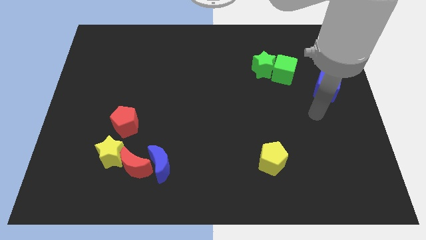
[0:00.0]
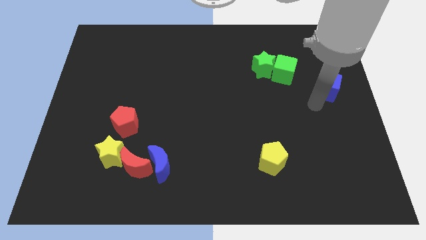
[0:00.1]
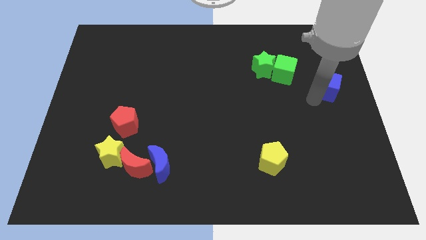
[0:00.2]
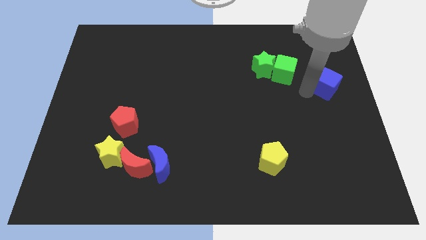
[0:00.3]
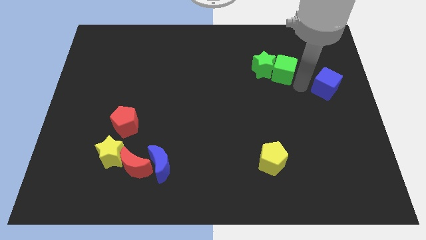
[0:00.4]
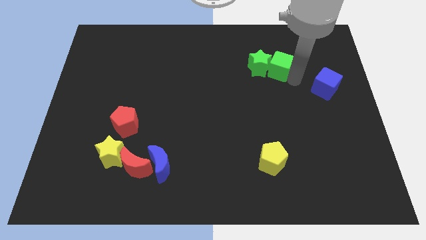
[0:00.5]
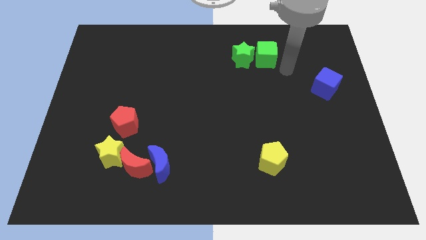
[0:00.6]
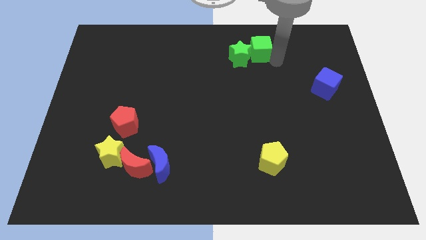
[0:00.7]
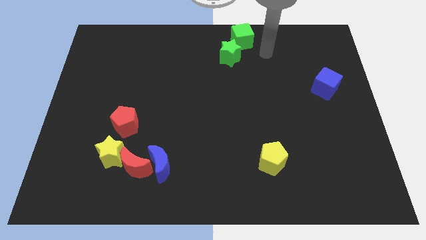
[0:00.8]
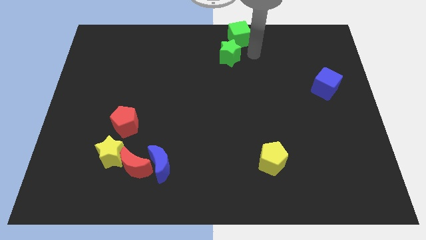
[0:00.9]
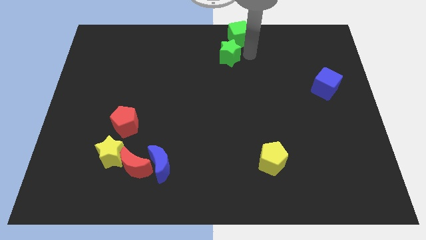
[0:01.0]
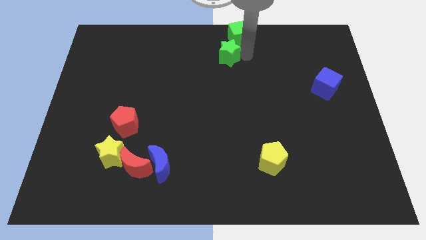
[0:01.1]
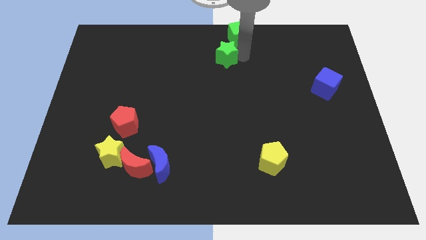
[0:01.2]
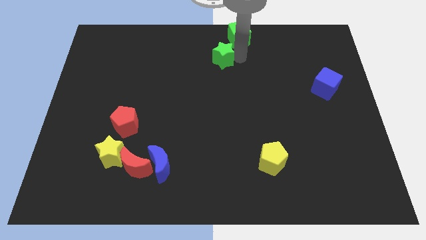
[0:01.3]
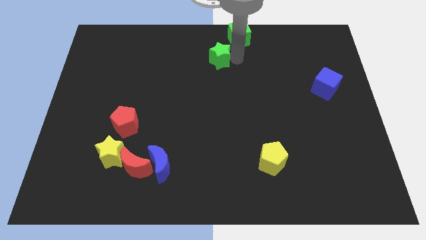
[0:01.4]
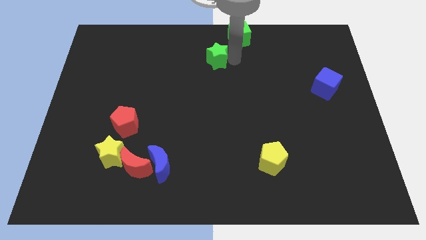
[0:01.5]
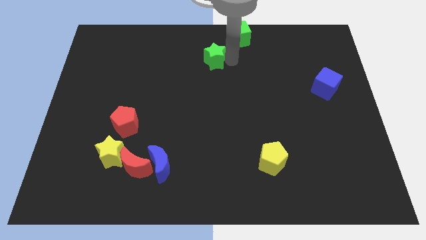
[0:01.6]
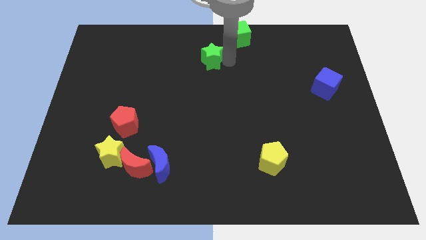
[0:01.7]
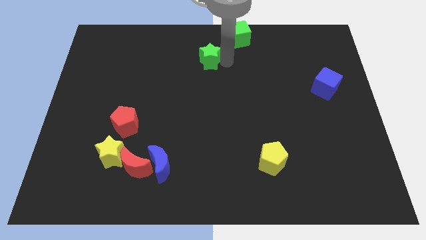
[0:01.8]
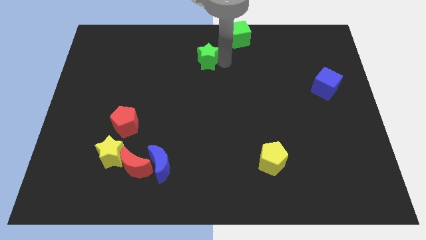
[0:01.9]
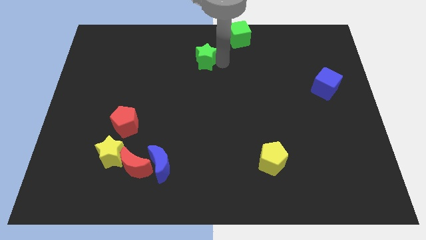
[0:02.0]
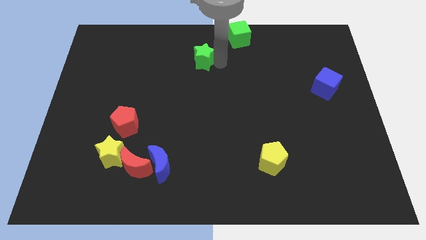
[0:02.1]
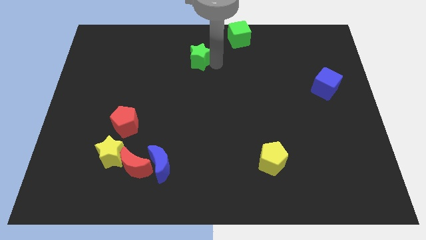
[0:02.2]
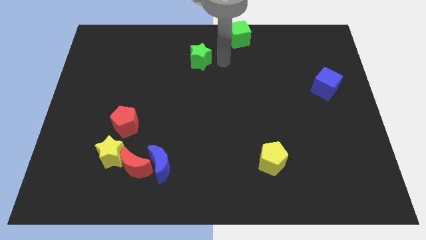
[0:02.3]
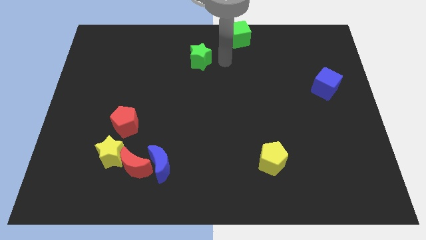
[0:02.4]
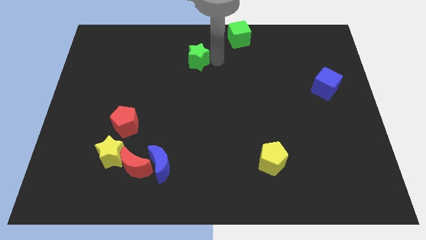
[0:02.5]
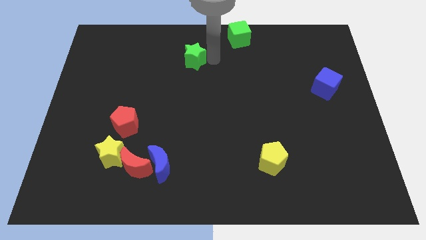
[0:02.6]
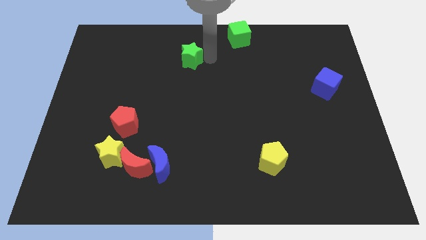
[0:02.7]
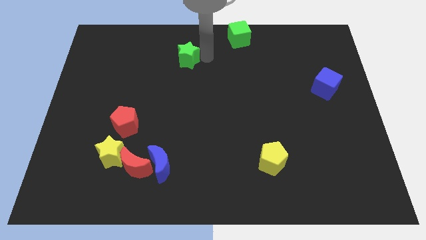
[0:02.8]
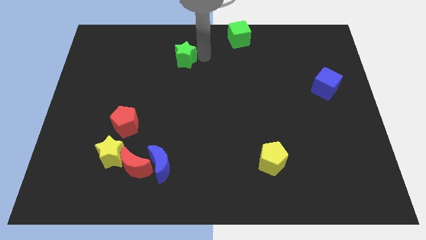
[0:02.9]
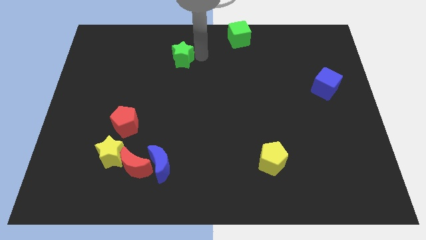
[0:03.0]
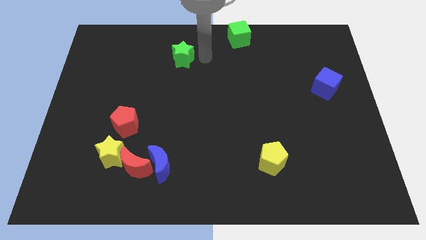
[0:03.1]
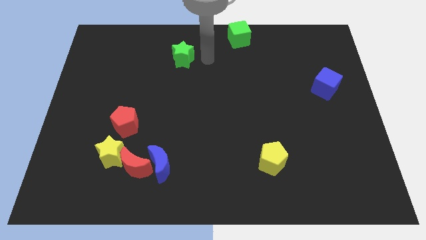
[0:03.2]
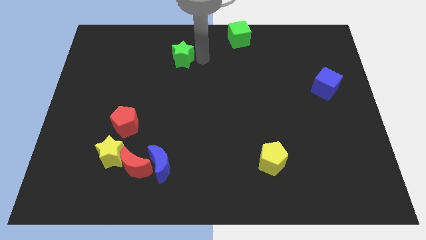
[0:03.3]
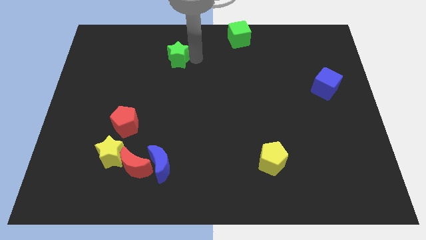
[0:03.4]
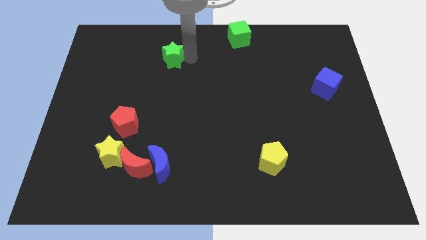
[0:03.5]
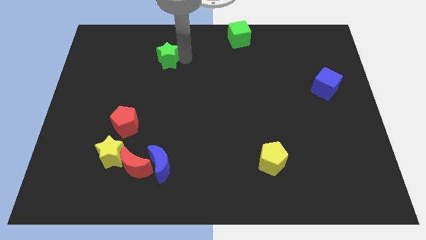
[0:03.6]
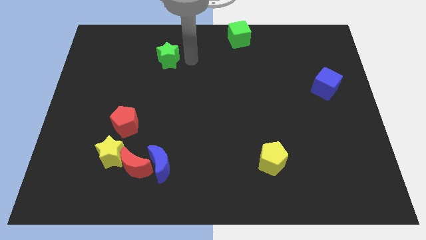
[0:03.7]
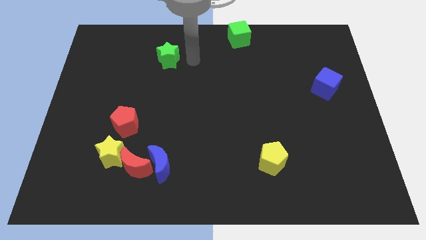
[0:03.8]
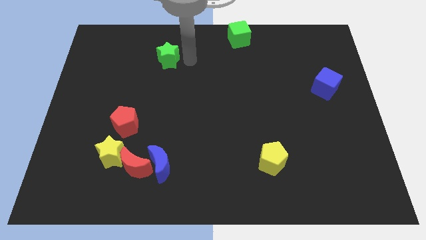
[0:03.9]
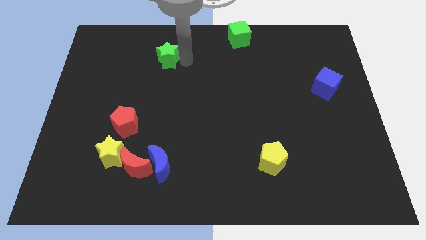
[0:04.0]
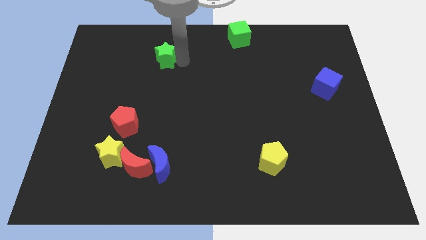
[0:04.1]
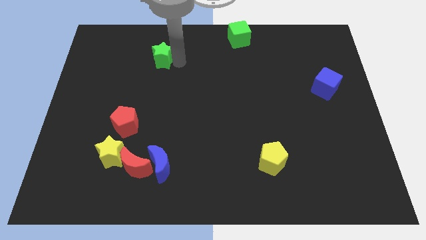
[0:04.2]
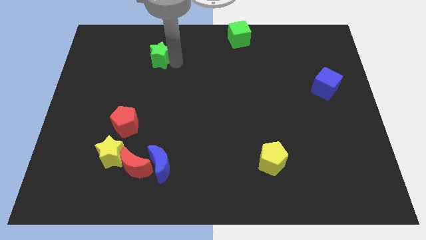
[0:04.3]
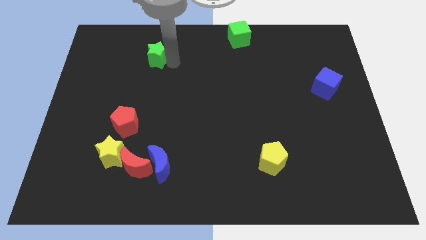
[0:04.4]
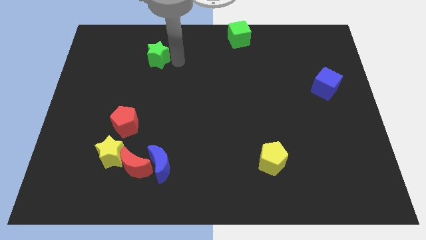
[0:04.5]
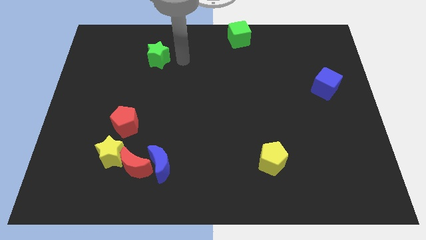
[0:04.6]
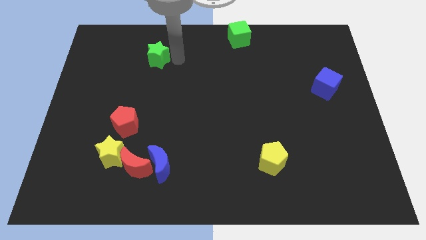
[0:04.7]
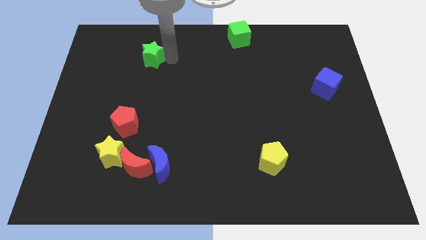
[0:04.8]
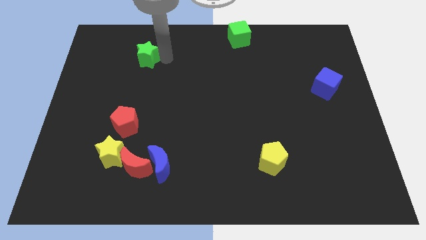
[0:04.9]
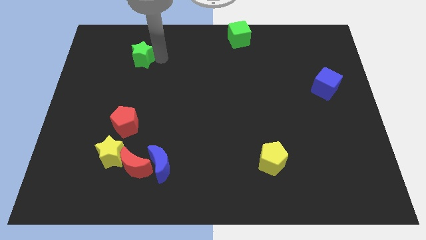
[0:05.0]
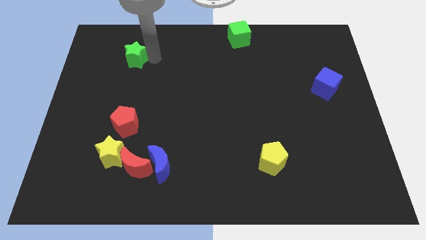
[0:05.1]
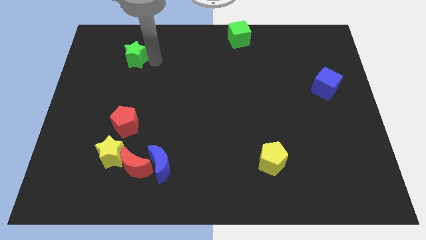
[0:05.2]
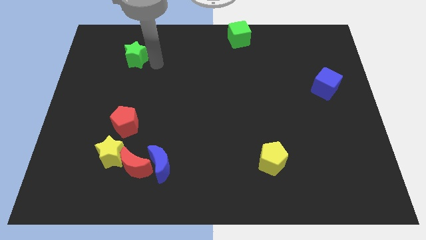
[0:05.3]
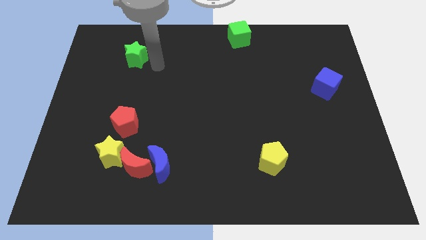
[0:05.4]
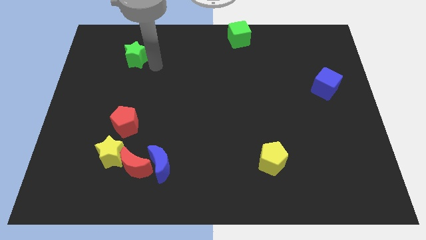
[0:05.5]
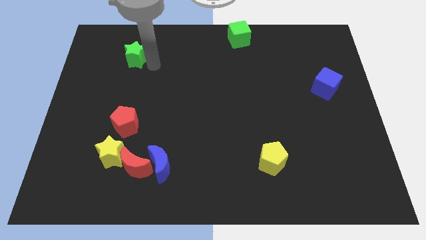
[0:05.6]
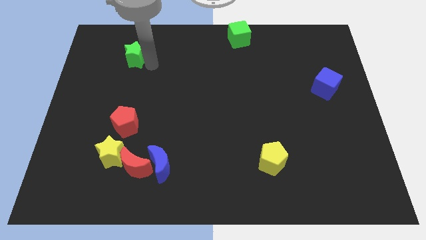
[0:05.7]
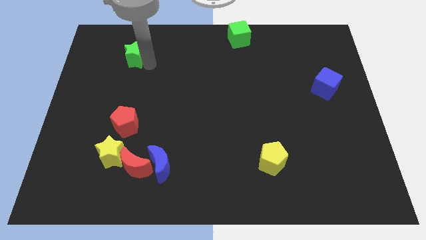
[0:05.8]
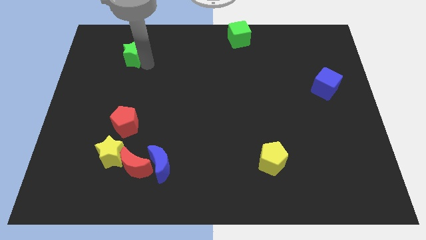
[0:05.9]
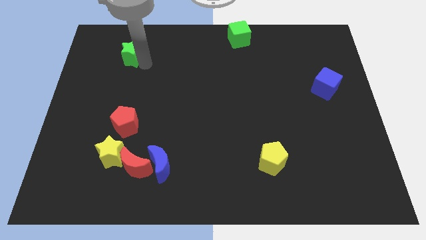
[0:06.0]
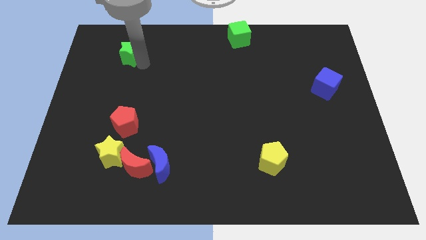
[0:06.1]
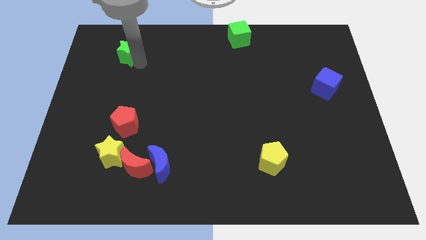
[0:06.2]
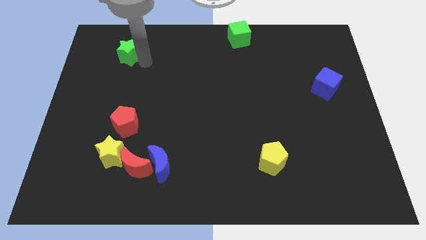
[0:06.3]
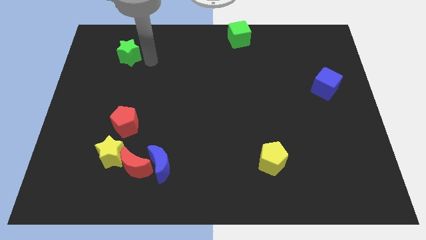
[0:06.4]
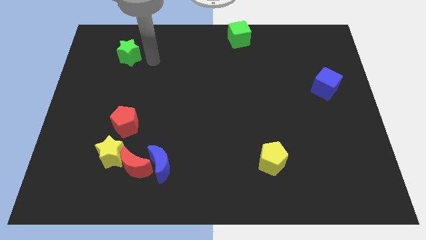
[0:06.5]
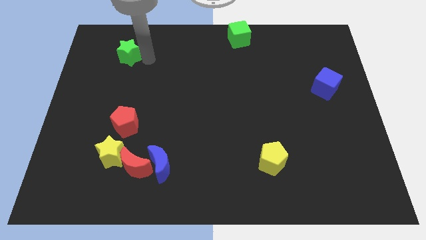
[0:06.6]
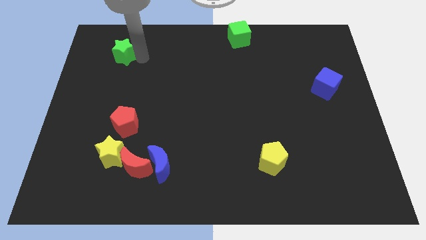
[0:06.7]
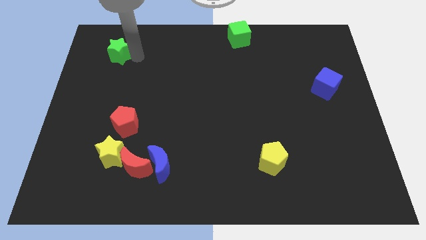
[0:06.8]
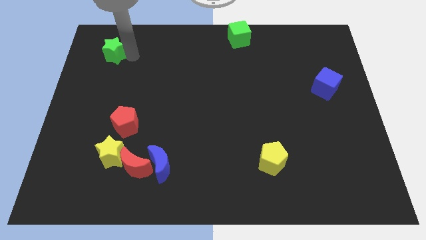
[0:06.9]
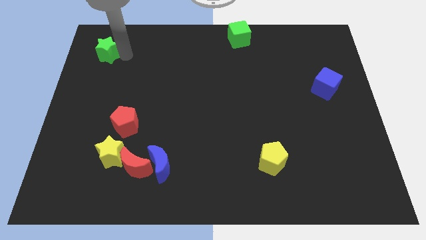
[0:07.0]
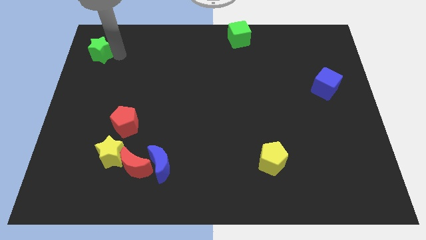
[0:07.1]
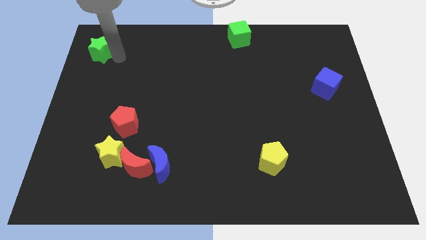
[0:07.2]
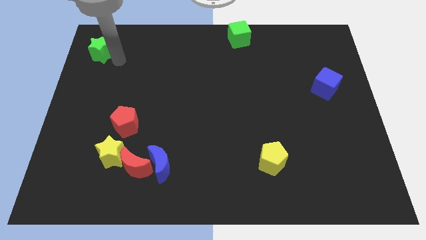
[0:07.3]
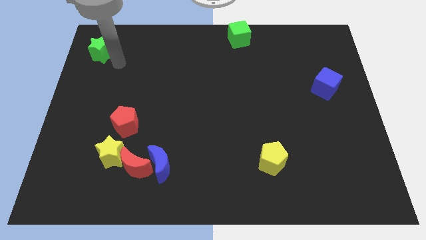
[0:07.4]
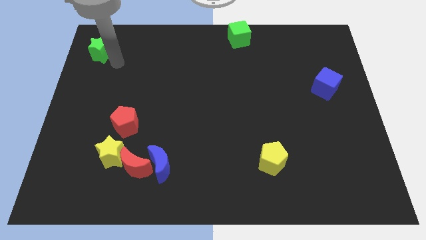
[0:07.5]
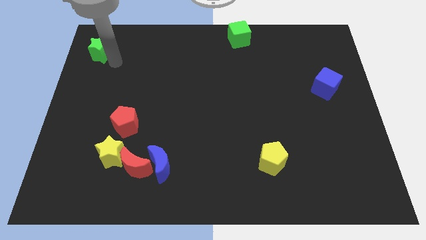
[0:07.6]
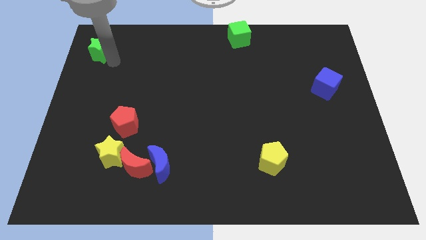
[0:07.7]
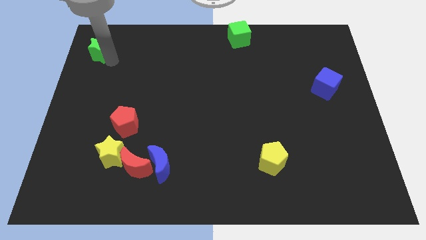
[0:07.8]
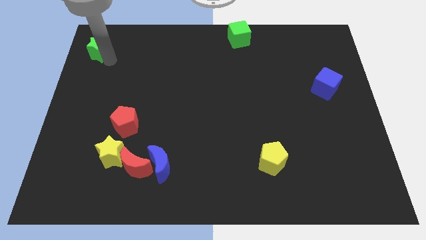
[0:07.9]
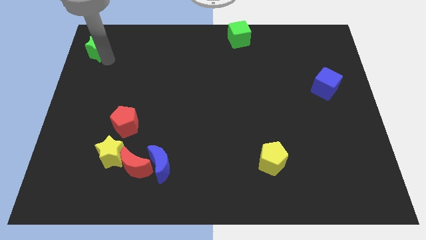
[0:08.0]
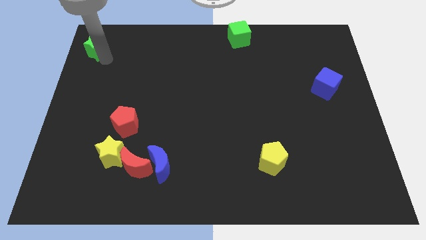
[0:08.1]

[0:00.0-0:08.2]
slide the green star to the top left corner
